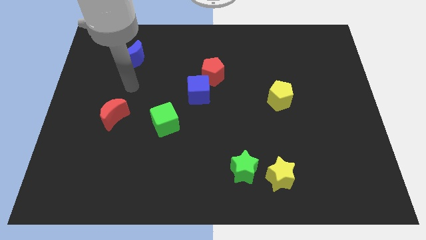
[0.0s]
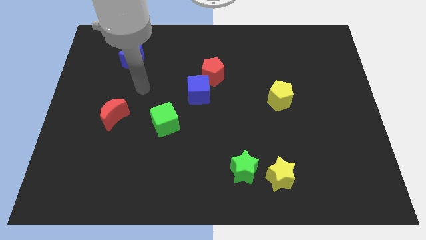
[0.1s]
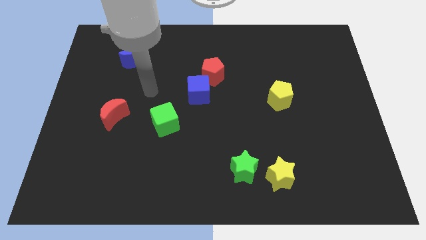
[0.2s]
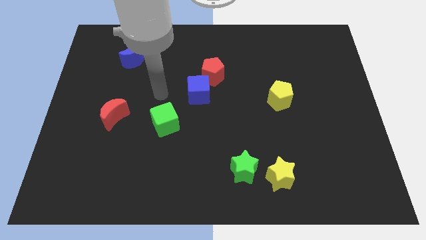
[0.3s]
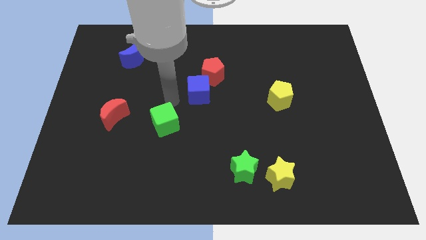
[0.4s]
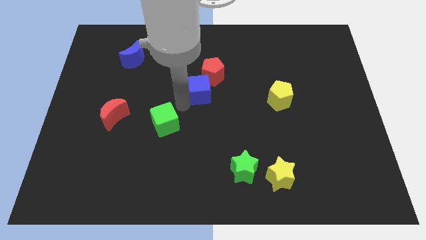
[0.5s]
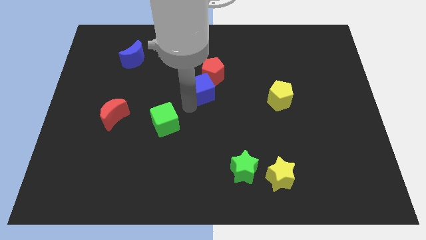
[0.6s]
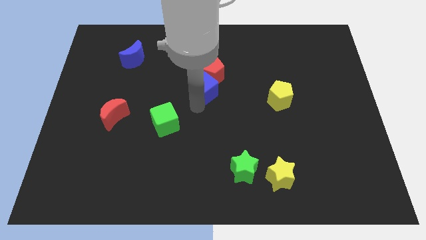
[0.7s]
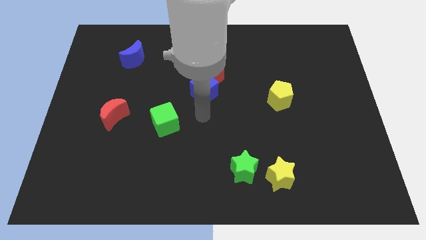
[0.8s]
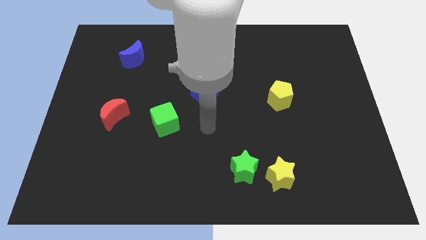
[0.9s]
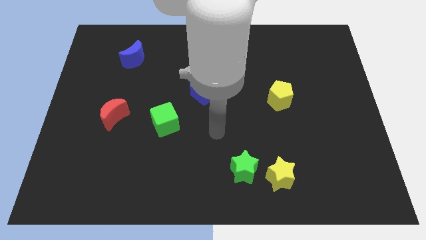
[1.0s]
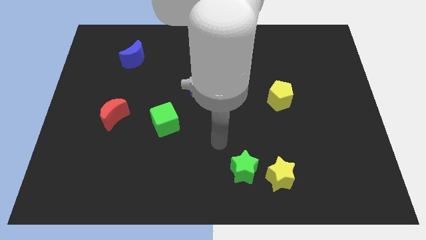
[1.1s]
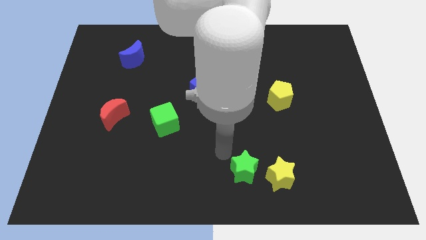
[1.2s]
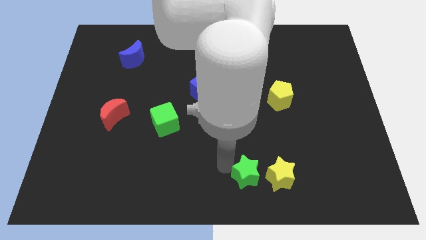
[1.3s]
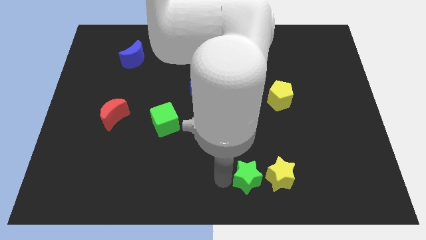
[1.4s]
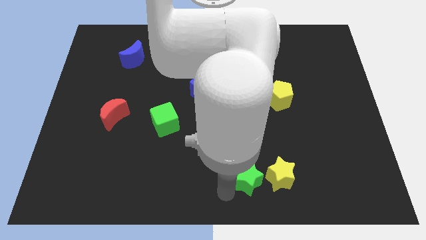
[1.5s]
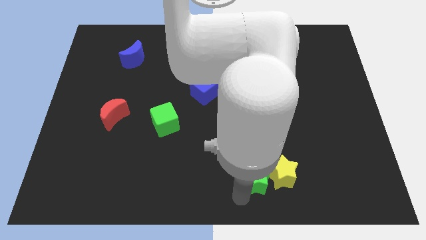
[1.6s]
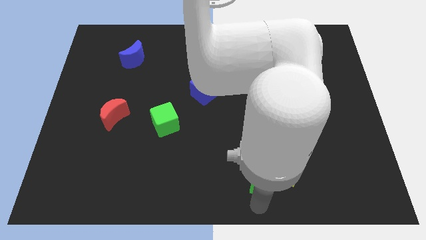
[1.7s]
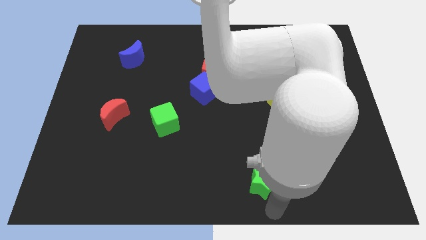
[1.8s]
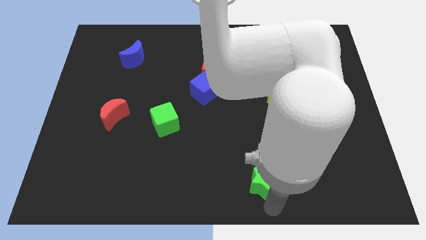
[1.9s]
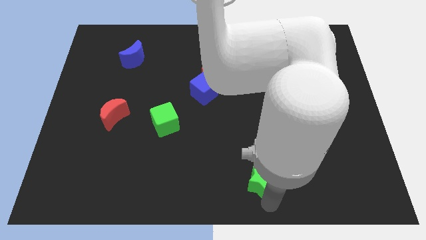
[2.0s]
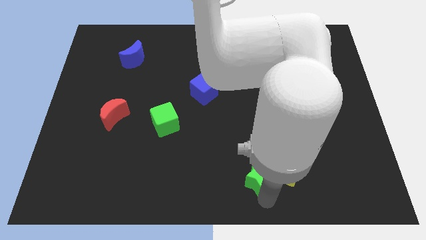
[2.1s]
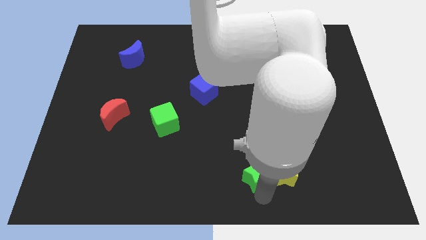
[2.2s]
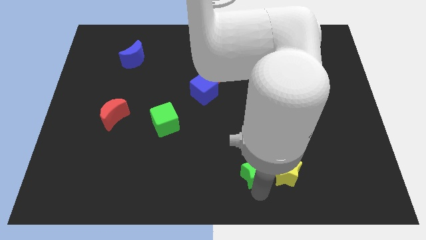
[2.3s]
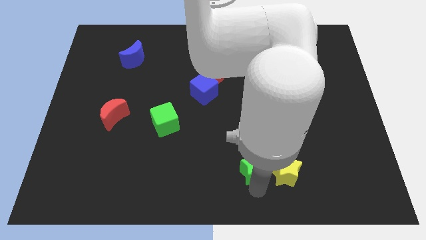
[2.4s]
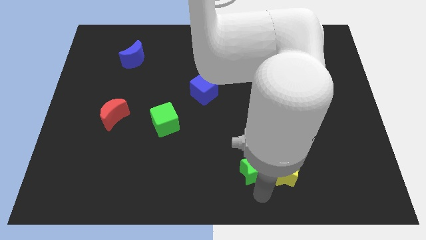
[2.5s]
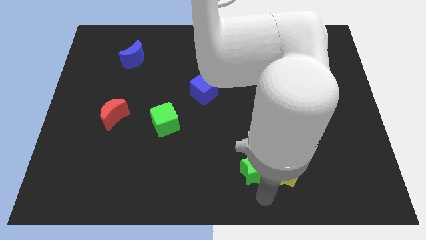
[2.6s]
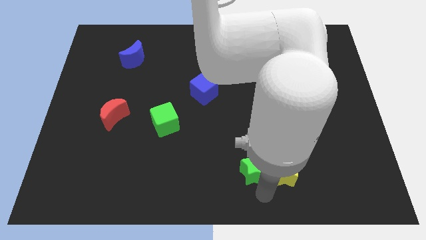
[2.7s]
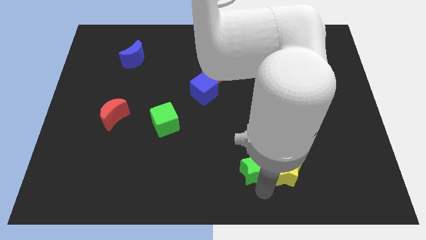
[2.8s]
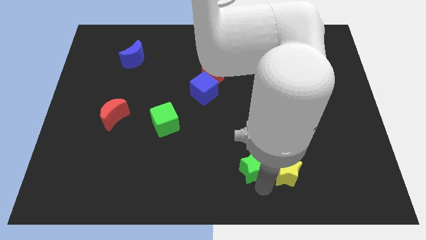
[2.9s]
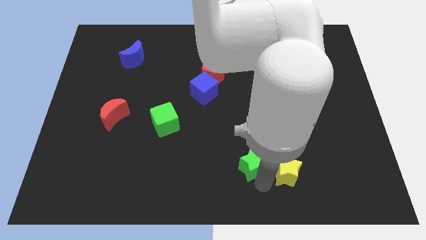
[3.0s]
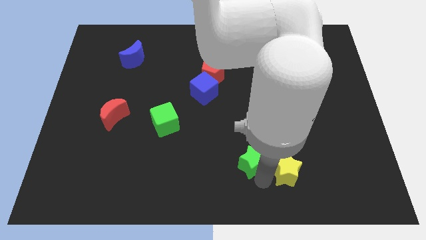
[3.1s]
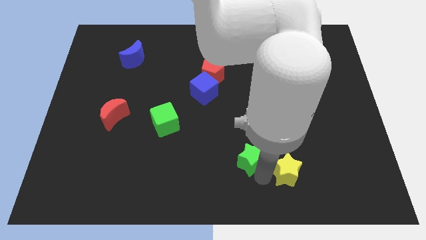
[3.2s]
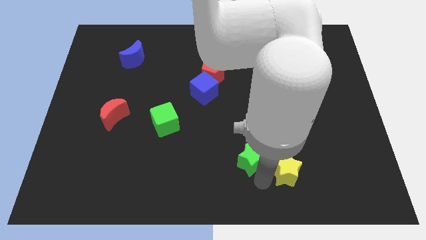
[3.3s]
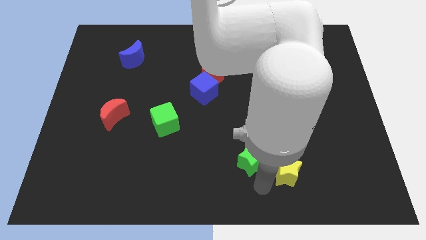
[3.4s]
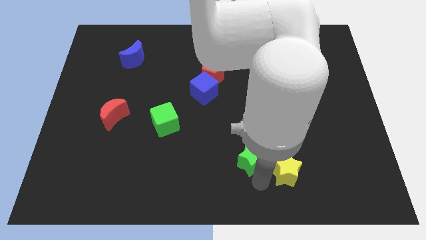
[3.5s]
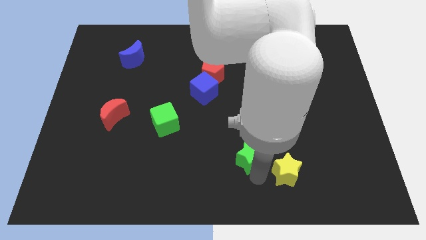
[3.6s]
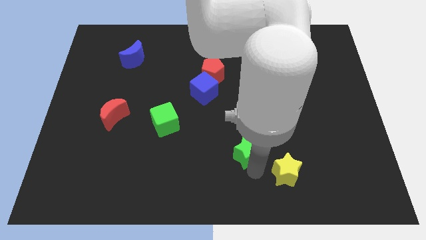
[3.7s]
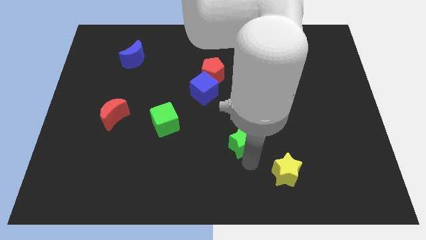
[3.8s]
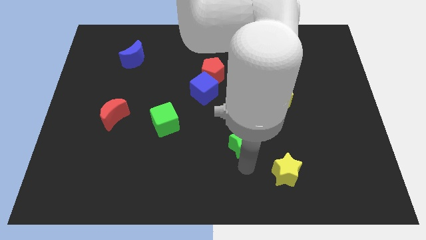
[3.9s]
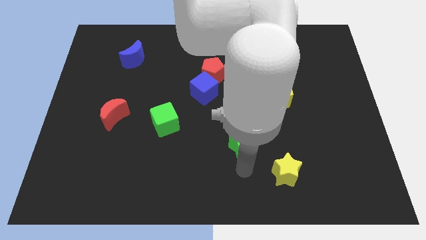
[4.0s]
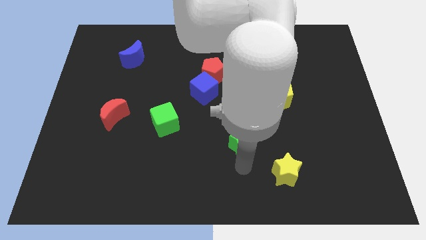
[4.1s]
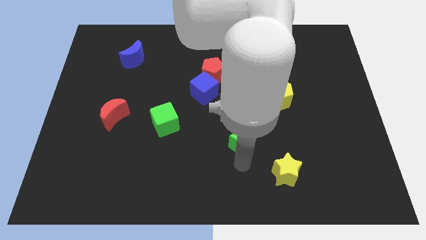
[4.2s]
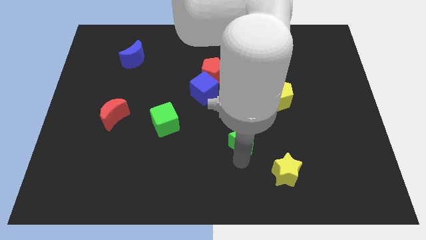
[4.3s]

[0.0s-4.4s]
slightly slide the green star up

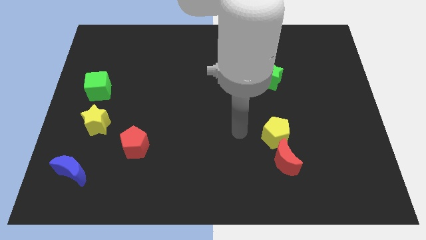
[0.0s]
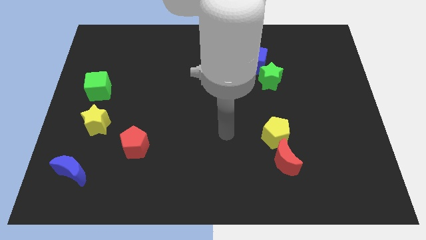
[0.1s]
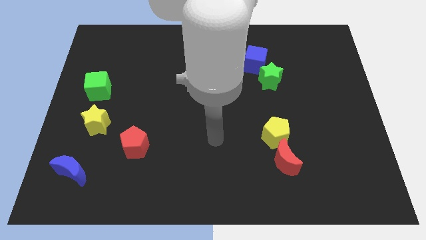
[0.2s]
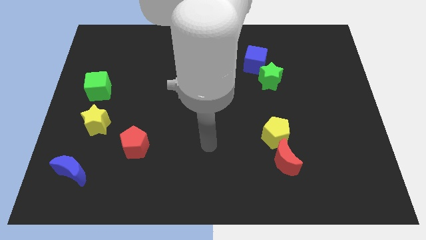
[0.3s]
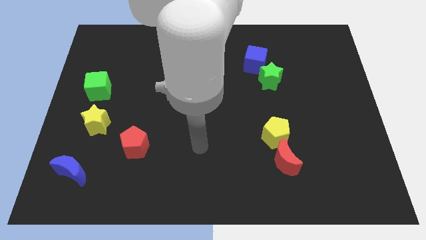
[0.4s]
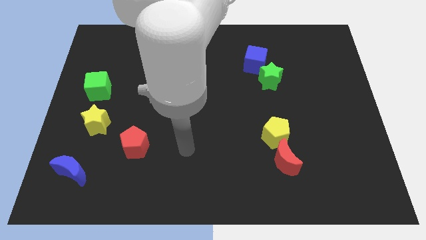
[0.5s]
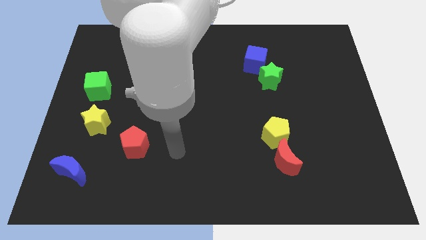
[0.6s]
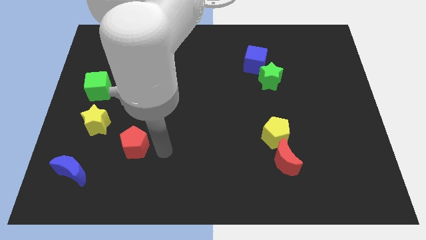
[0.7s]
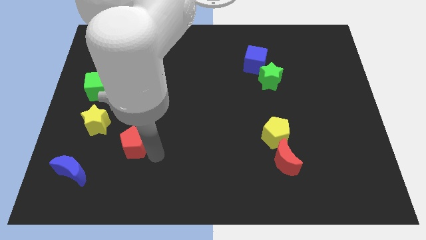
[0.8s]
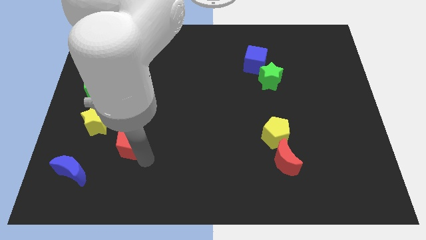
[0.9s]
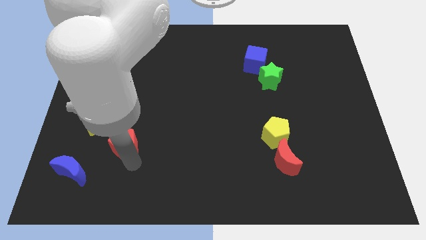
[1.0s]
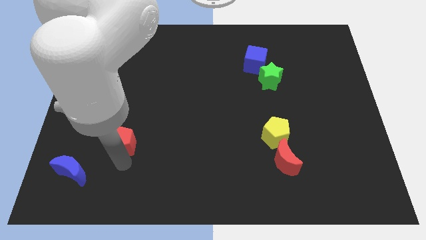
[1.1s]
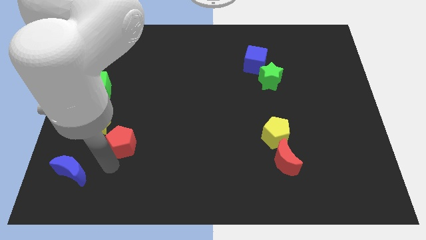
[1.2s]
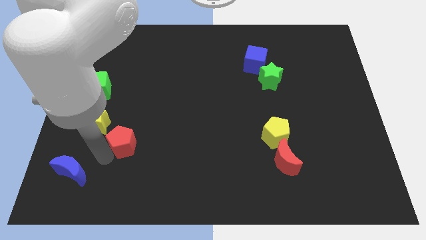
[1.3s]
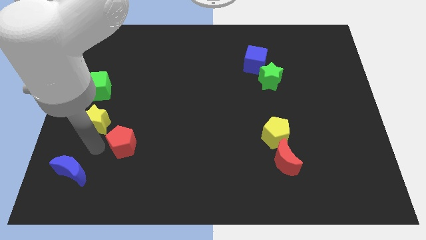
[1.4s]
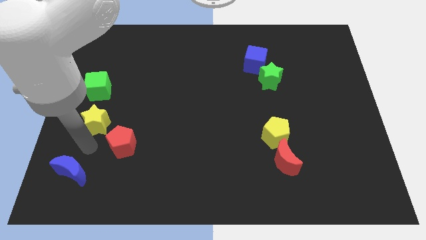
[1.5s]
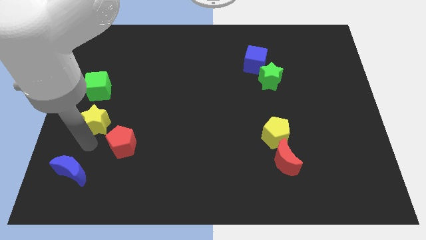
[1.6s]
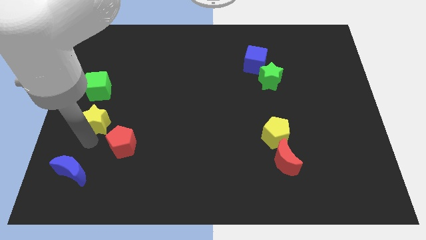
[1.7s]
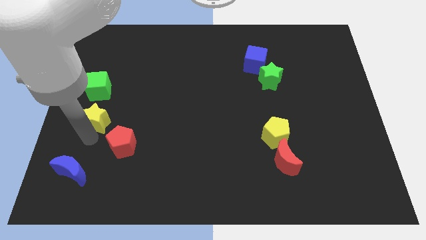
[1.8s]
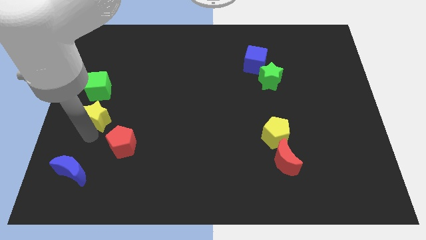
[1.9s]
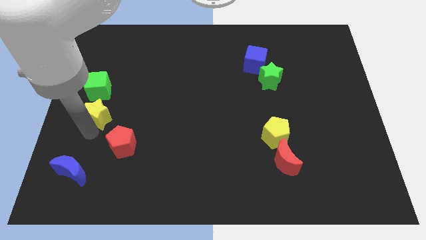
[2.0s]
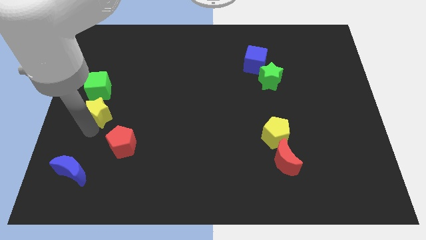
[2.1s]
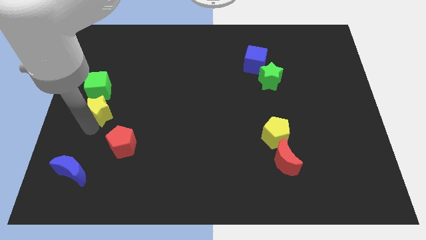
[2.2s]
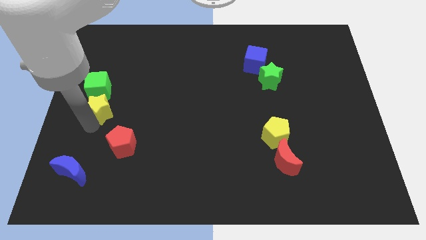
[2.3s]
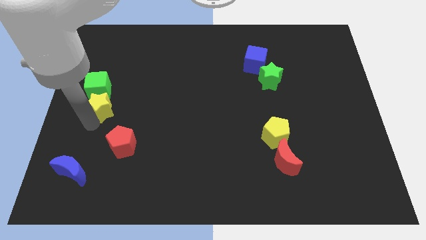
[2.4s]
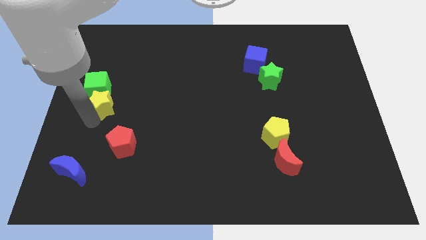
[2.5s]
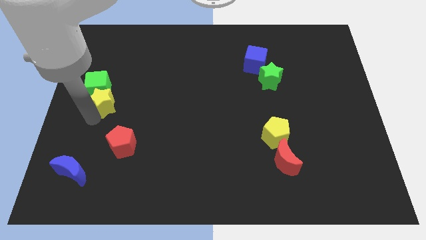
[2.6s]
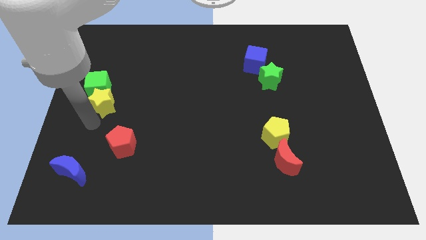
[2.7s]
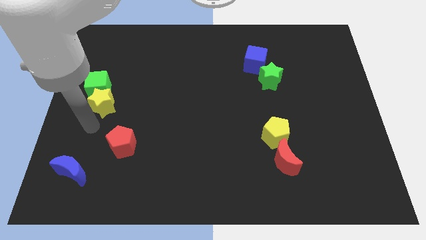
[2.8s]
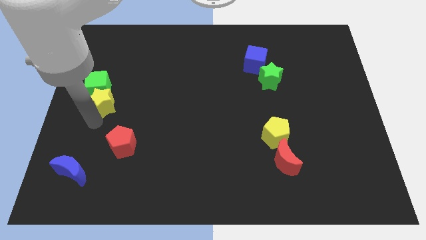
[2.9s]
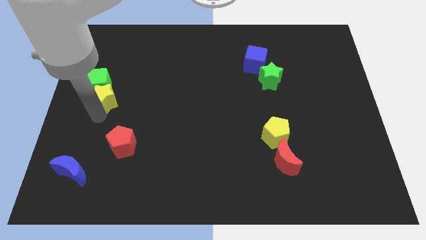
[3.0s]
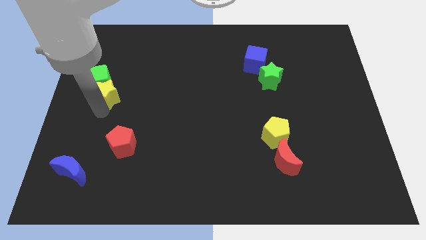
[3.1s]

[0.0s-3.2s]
push the yellow star upwards a little

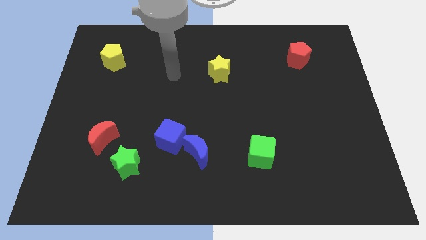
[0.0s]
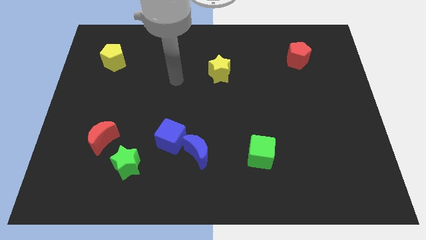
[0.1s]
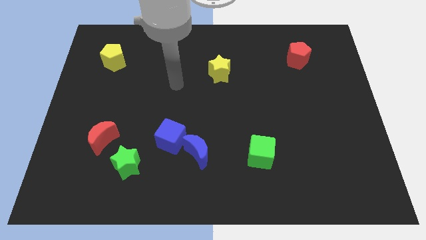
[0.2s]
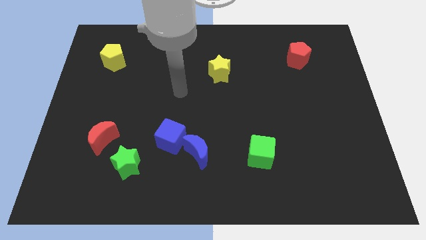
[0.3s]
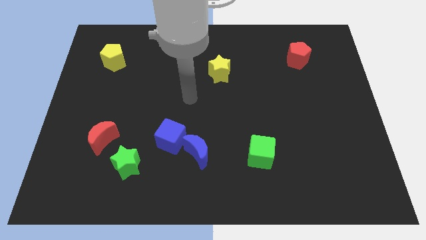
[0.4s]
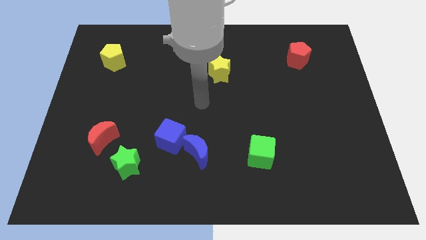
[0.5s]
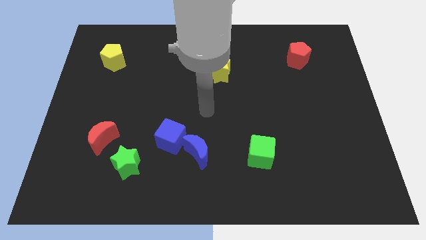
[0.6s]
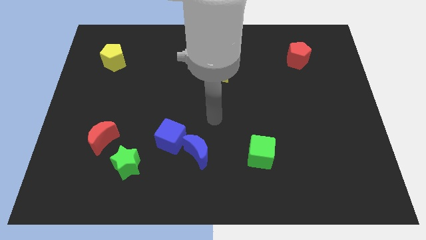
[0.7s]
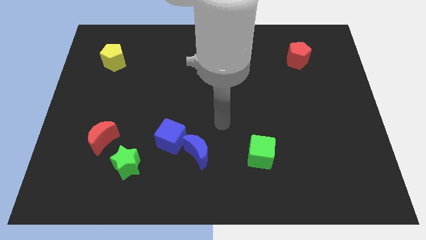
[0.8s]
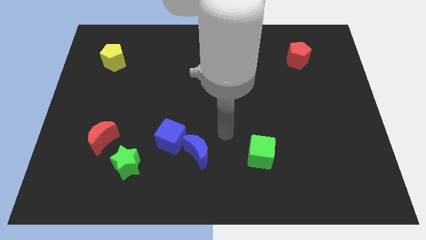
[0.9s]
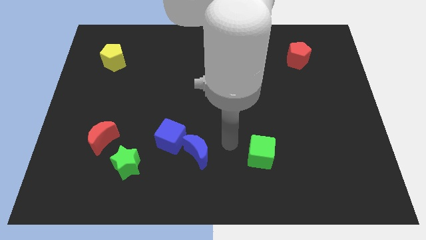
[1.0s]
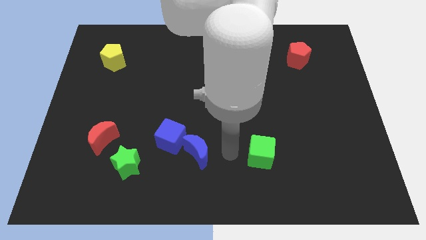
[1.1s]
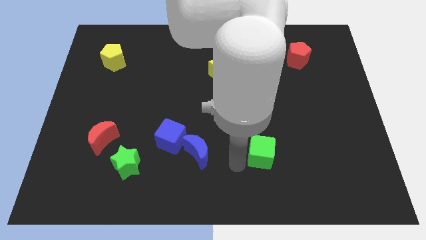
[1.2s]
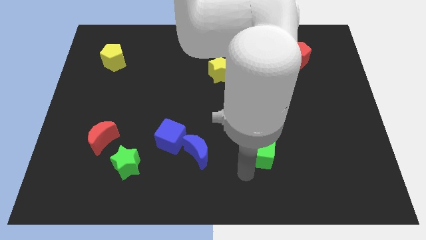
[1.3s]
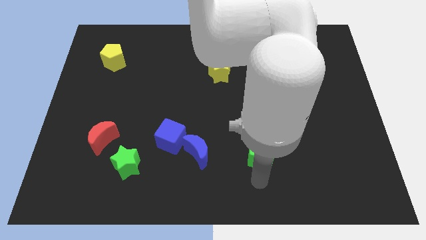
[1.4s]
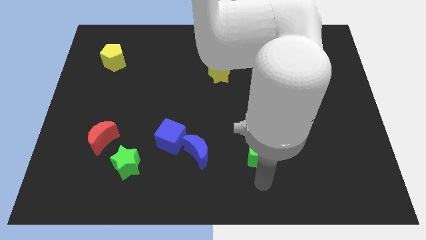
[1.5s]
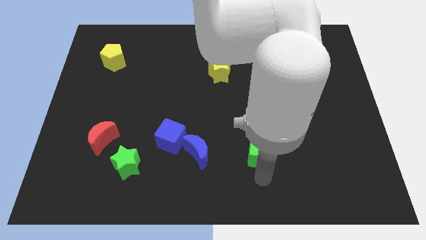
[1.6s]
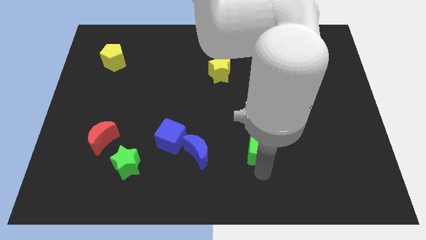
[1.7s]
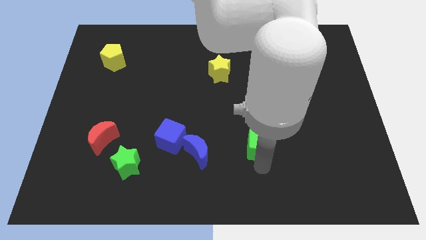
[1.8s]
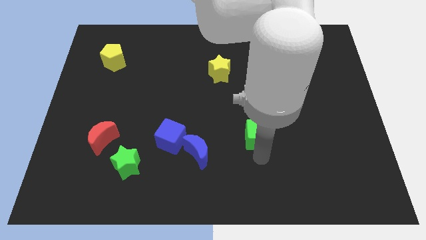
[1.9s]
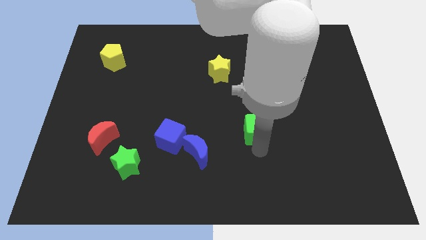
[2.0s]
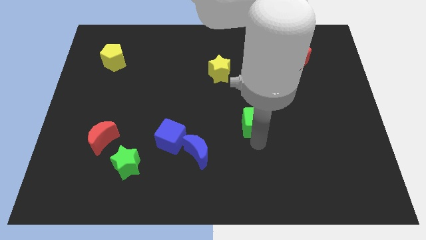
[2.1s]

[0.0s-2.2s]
push the green cube somewhat up
